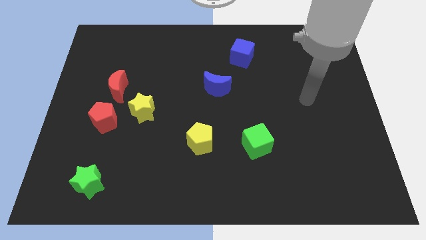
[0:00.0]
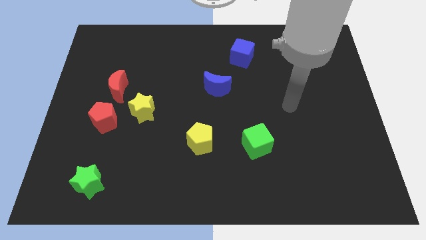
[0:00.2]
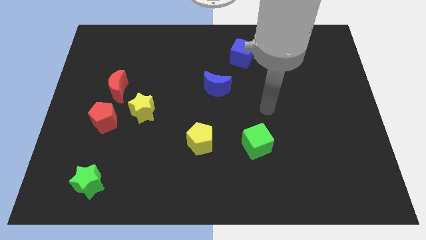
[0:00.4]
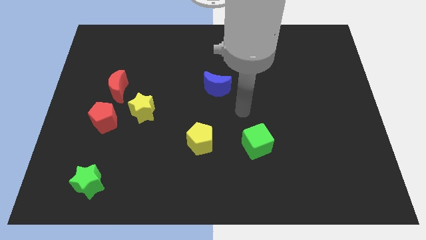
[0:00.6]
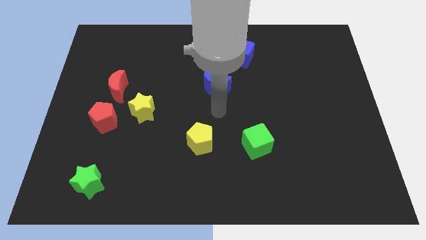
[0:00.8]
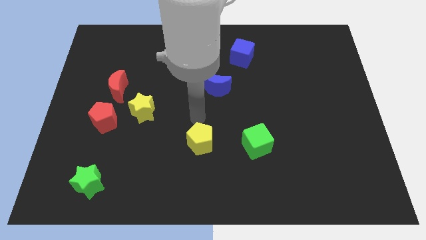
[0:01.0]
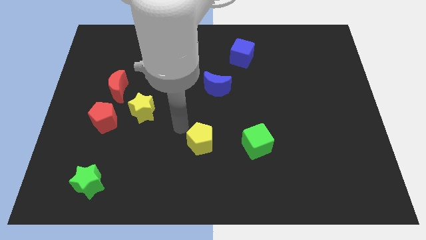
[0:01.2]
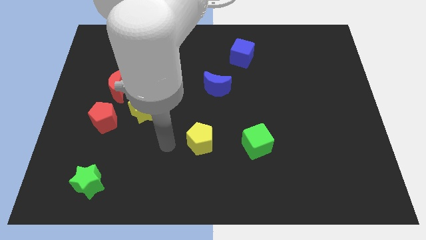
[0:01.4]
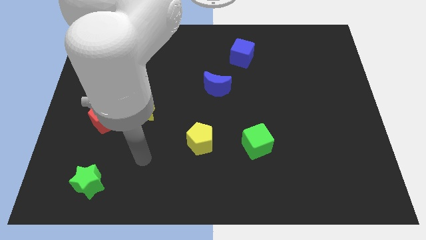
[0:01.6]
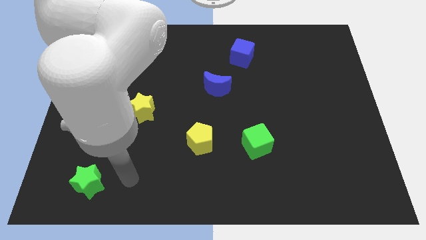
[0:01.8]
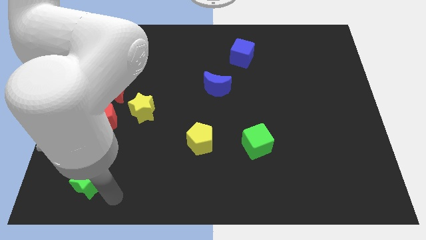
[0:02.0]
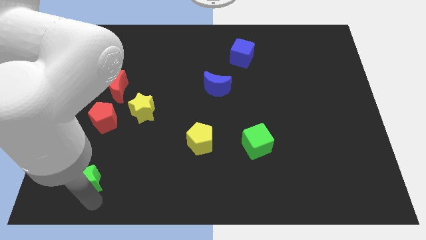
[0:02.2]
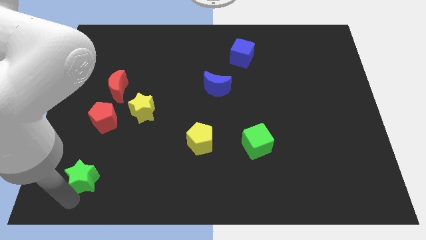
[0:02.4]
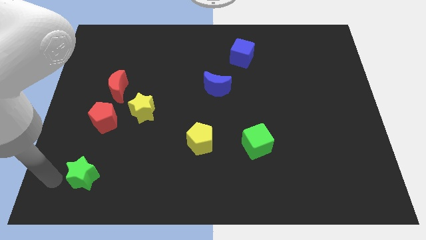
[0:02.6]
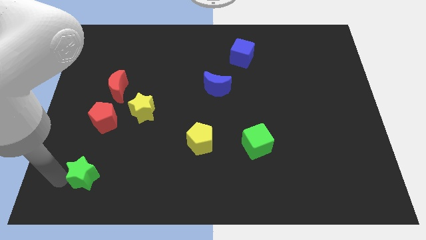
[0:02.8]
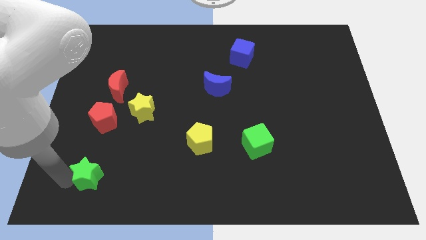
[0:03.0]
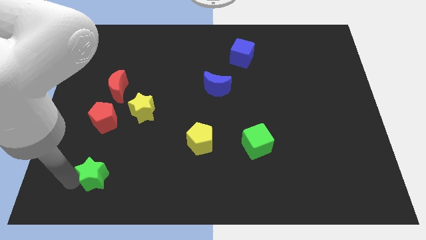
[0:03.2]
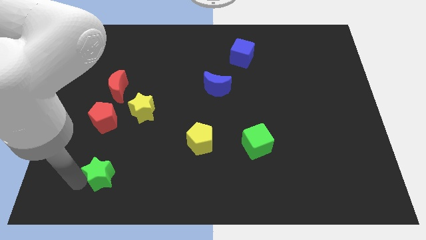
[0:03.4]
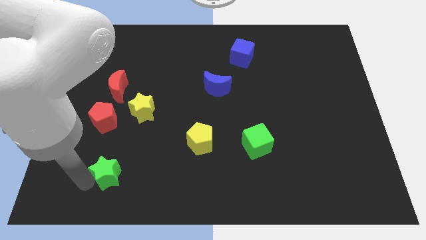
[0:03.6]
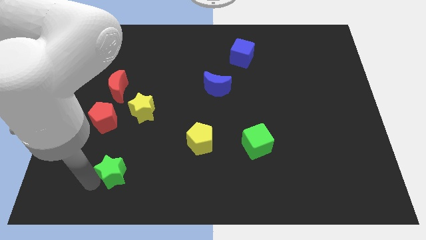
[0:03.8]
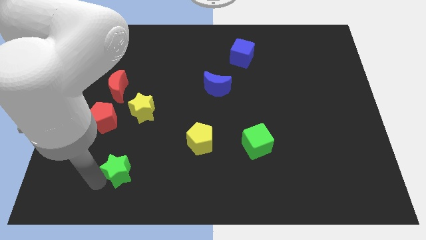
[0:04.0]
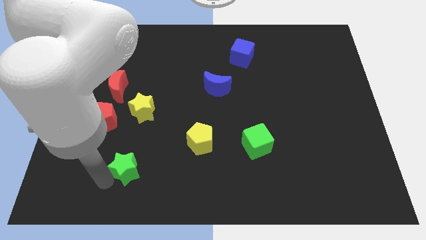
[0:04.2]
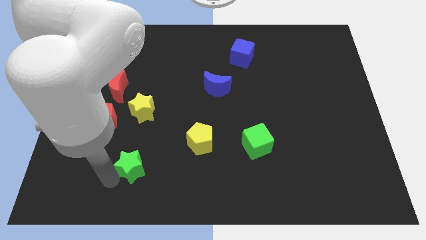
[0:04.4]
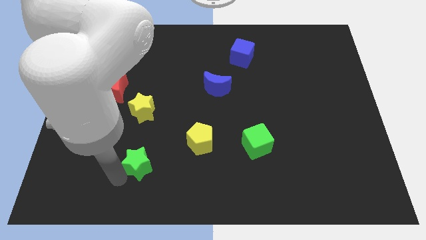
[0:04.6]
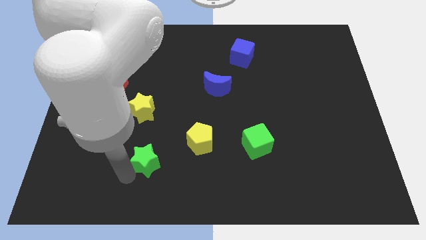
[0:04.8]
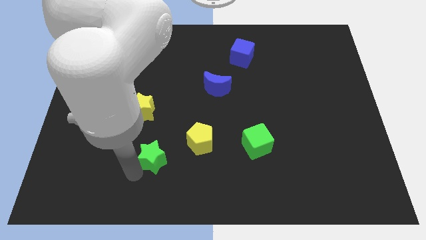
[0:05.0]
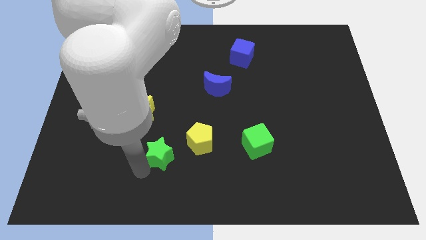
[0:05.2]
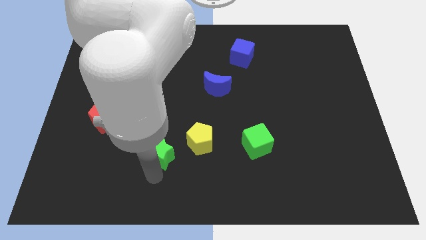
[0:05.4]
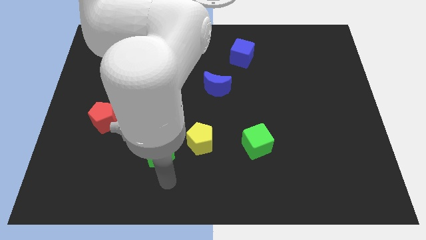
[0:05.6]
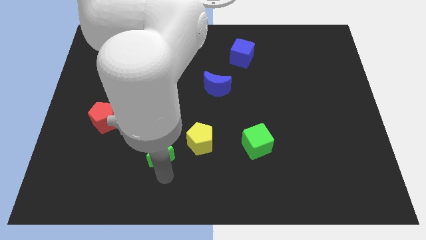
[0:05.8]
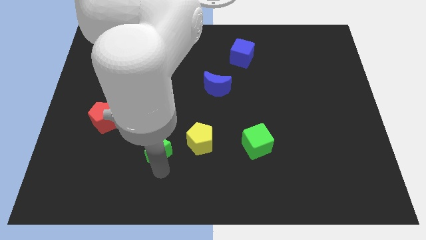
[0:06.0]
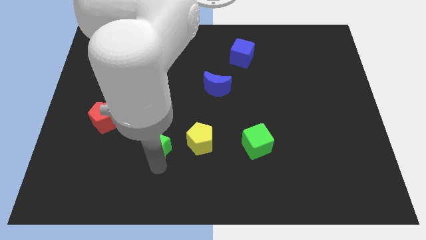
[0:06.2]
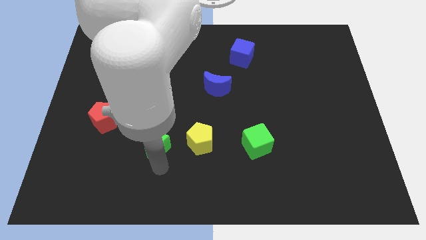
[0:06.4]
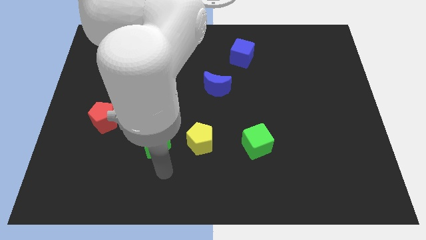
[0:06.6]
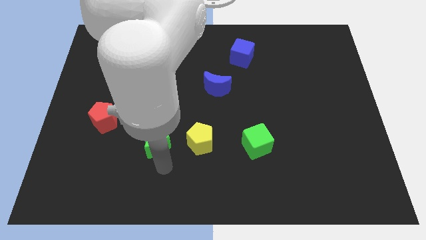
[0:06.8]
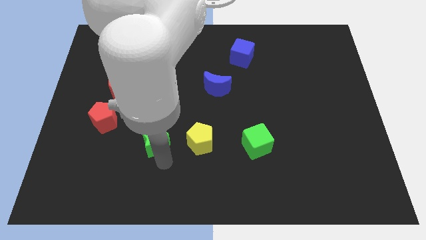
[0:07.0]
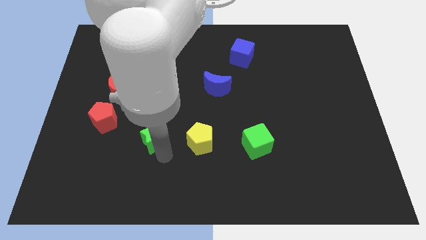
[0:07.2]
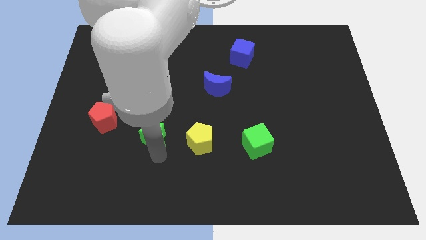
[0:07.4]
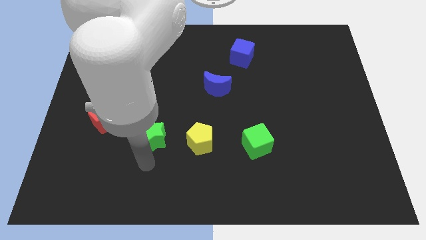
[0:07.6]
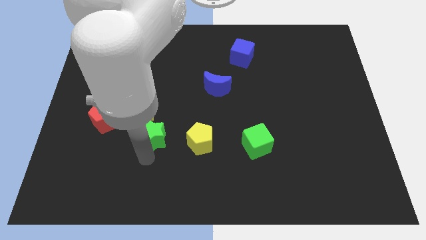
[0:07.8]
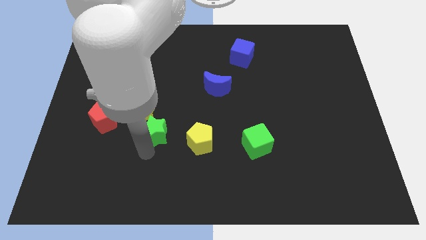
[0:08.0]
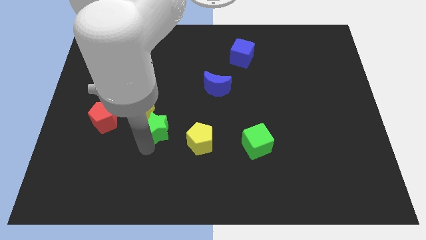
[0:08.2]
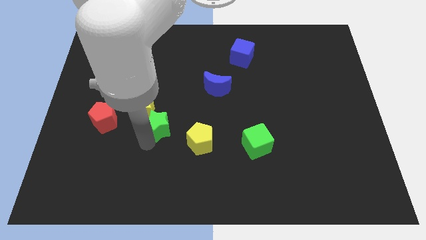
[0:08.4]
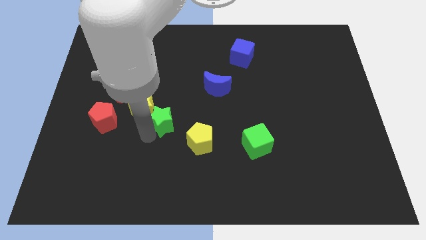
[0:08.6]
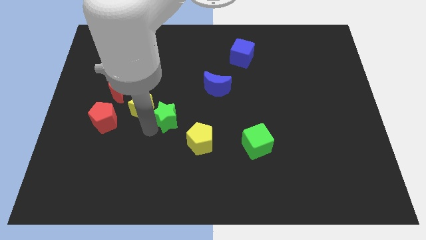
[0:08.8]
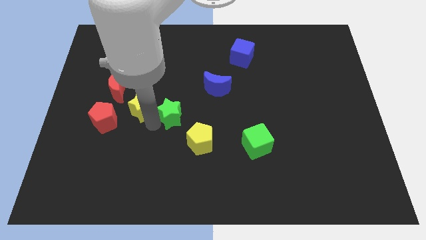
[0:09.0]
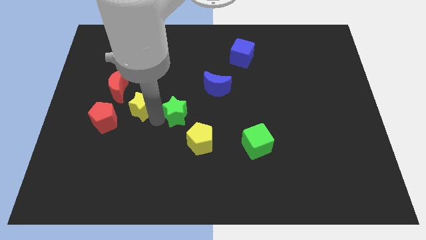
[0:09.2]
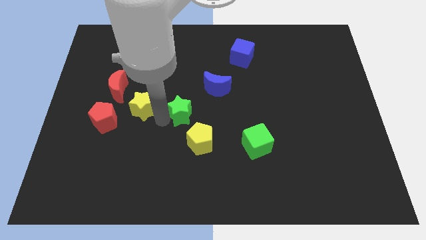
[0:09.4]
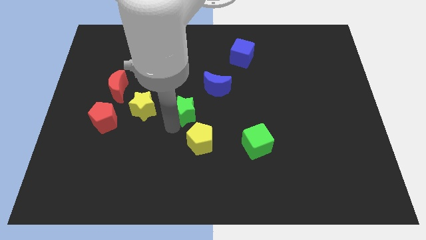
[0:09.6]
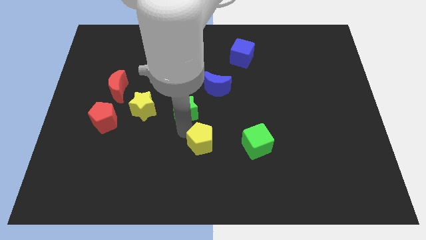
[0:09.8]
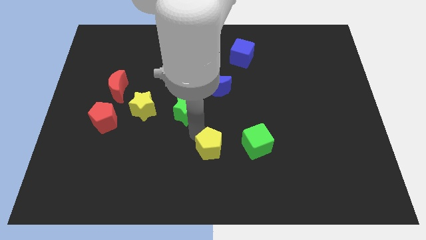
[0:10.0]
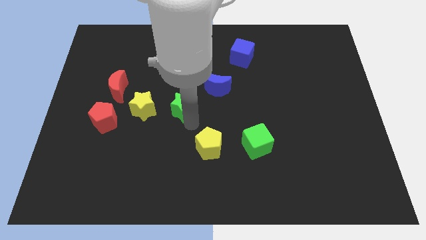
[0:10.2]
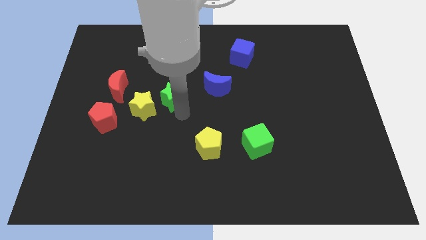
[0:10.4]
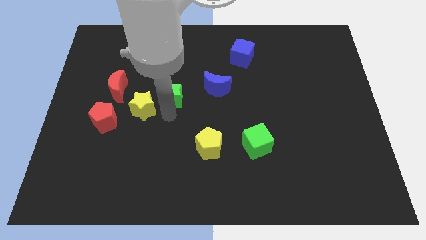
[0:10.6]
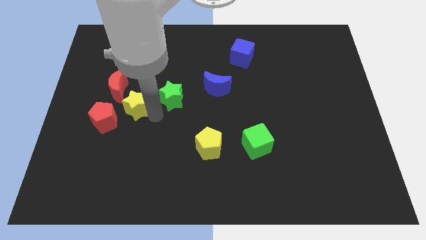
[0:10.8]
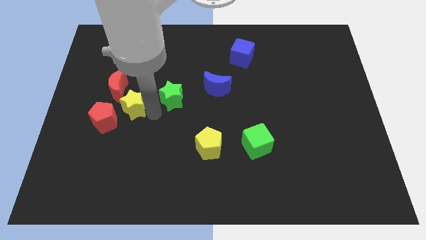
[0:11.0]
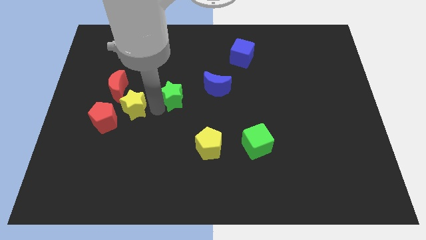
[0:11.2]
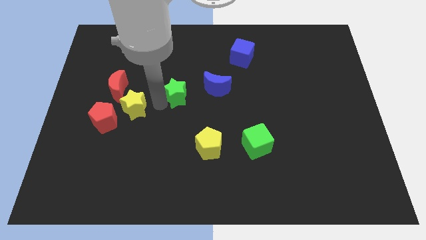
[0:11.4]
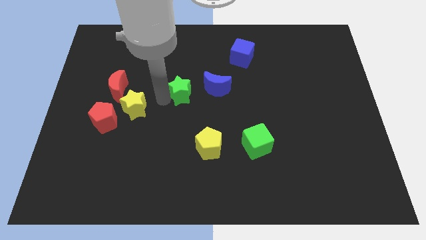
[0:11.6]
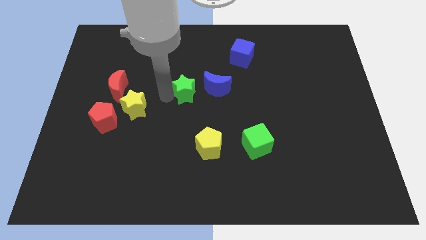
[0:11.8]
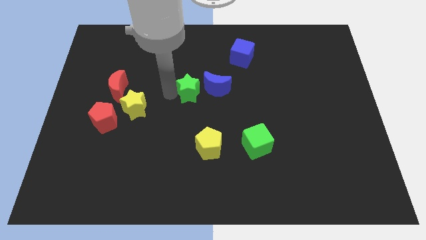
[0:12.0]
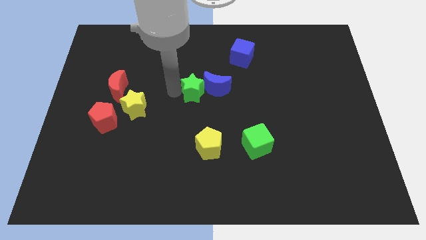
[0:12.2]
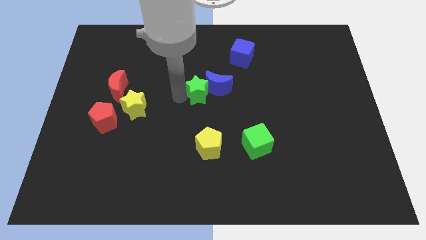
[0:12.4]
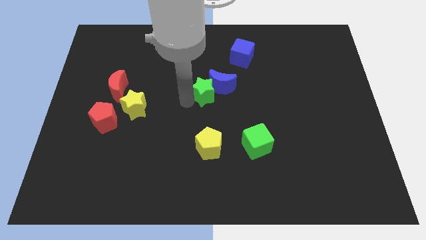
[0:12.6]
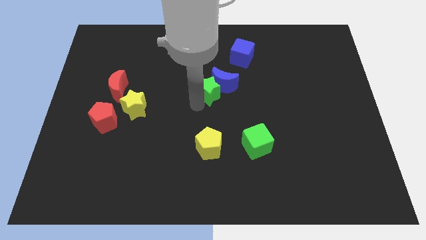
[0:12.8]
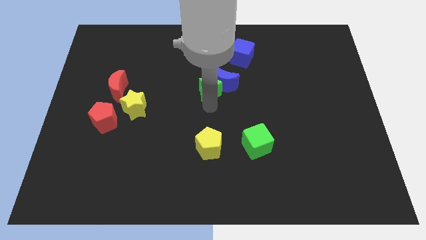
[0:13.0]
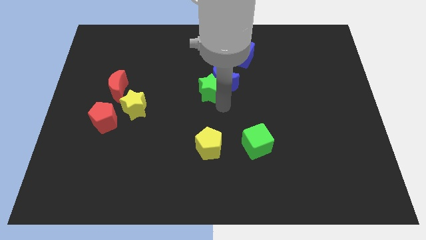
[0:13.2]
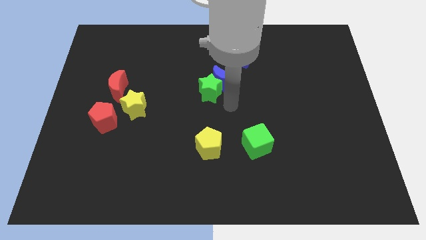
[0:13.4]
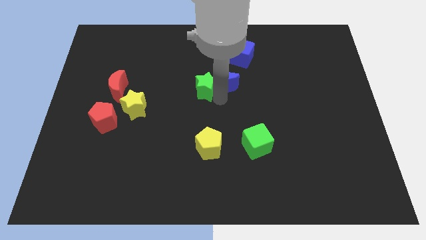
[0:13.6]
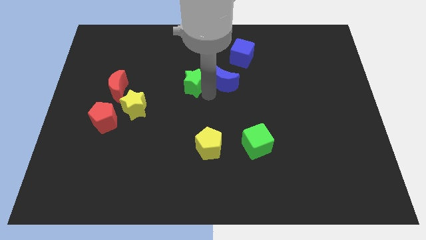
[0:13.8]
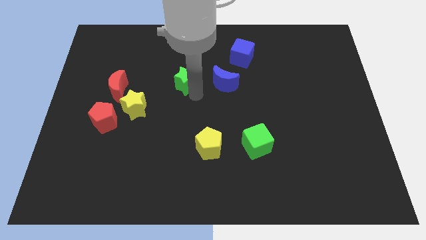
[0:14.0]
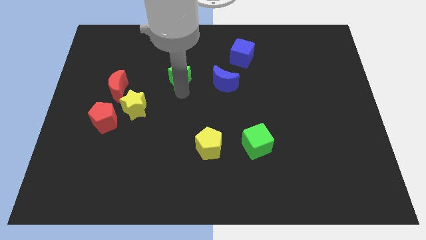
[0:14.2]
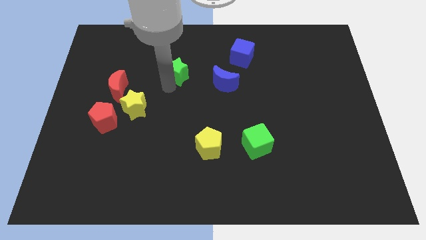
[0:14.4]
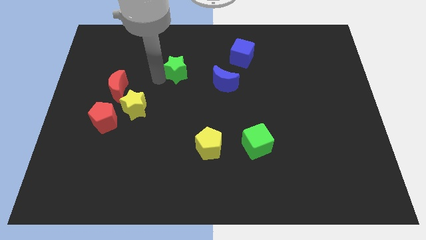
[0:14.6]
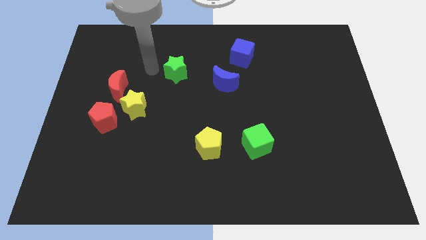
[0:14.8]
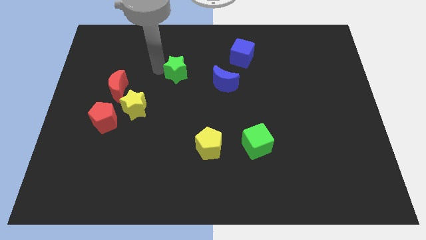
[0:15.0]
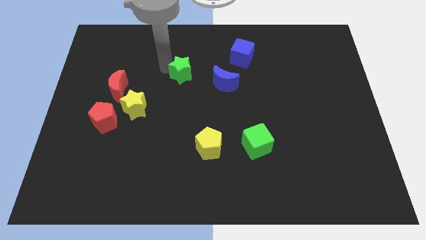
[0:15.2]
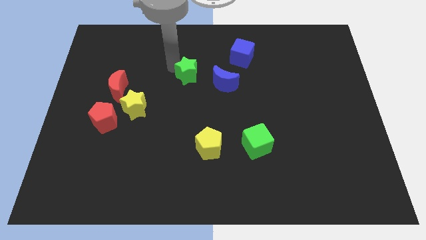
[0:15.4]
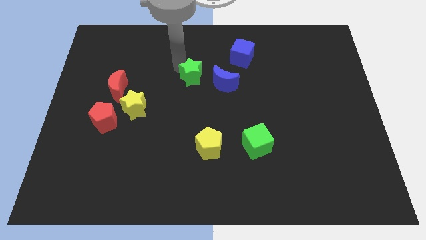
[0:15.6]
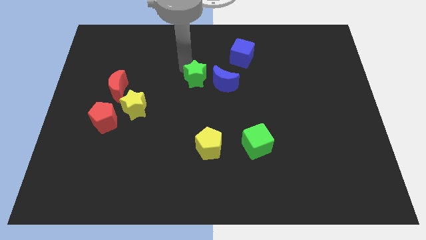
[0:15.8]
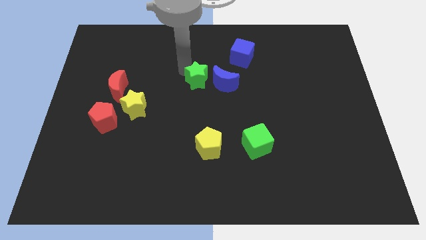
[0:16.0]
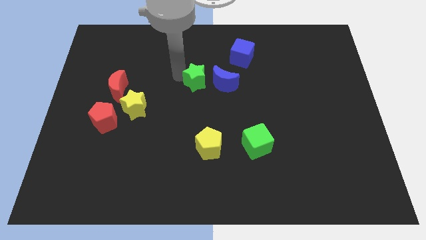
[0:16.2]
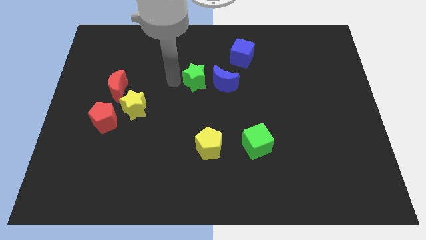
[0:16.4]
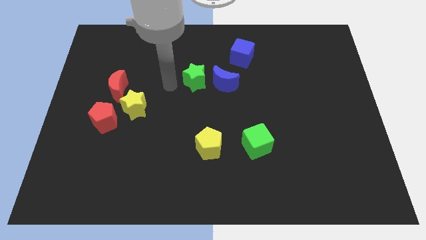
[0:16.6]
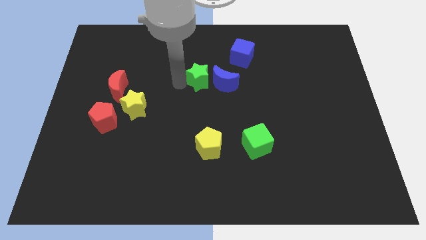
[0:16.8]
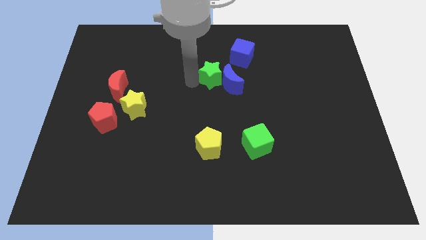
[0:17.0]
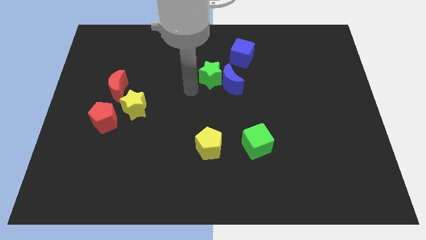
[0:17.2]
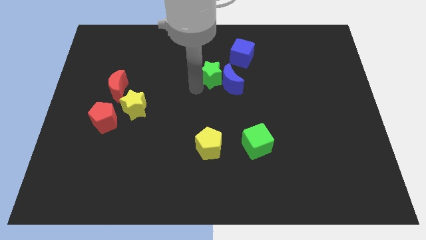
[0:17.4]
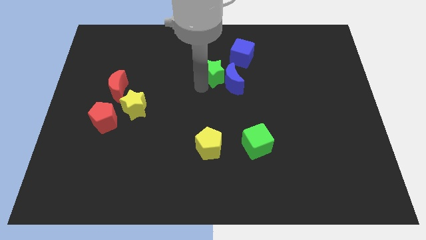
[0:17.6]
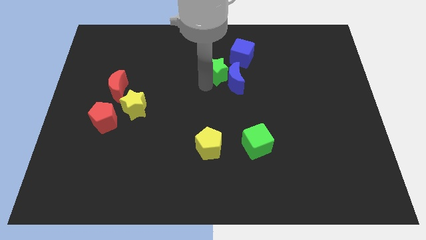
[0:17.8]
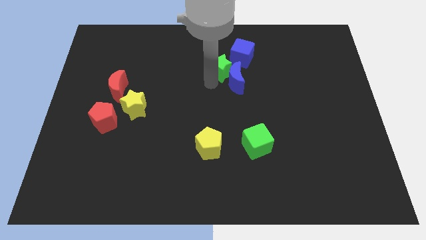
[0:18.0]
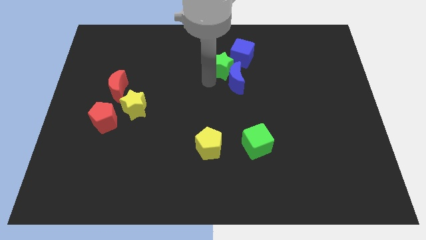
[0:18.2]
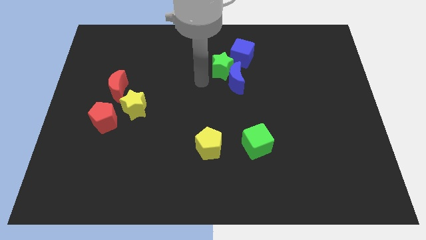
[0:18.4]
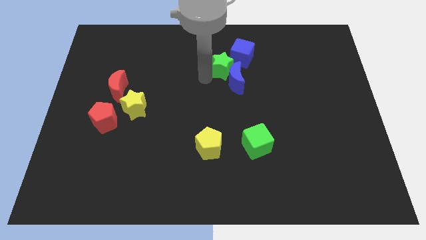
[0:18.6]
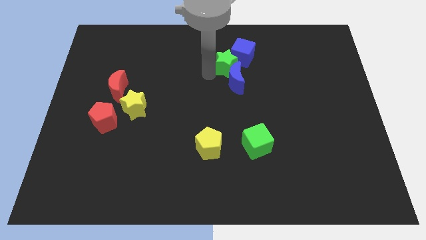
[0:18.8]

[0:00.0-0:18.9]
slide the green star towards the blue cube
